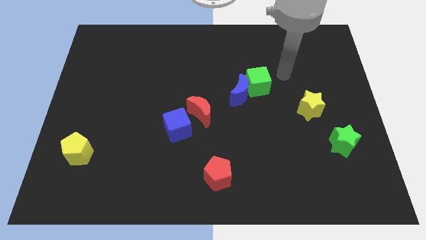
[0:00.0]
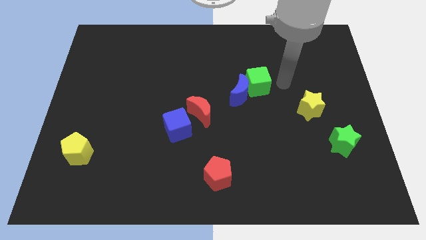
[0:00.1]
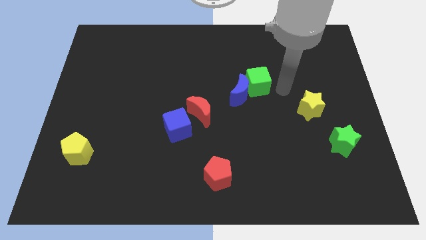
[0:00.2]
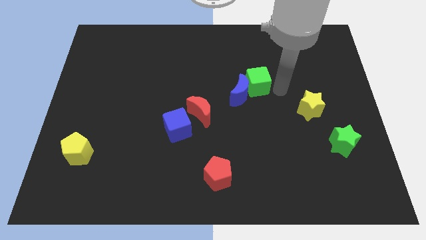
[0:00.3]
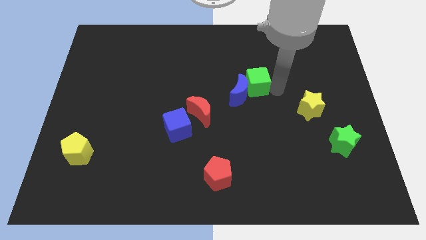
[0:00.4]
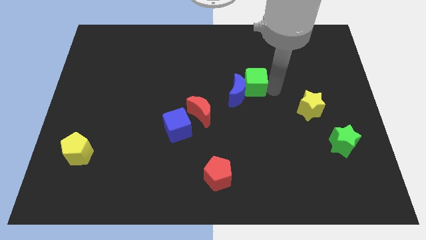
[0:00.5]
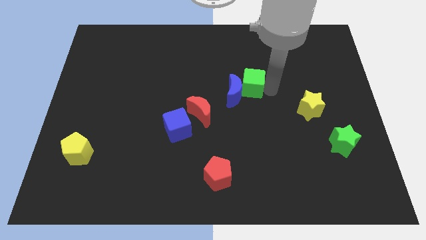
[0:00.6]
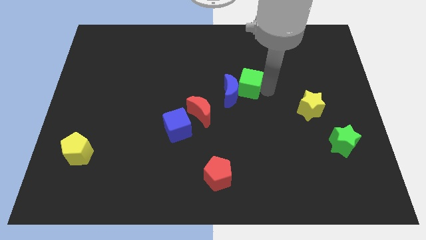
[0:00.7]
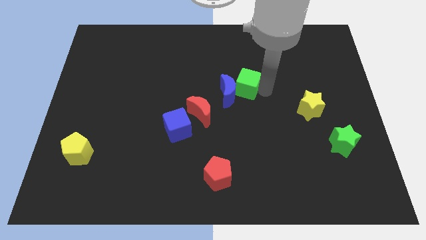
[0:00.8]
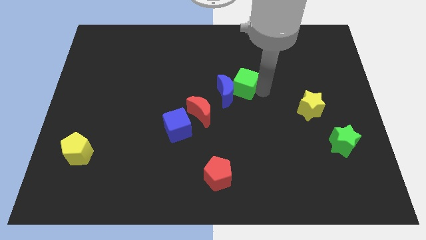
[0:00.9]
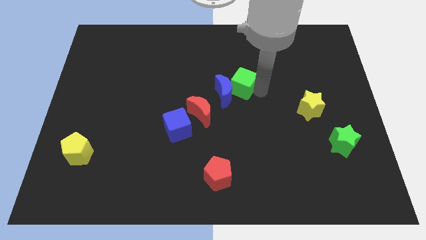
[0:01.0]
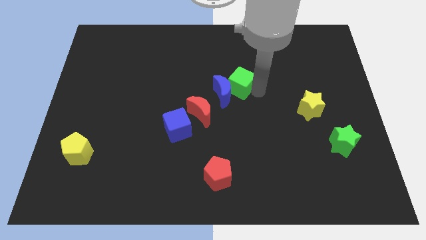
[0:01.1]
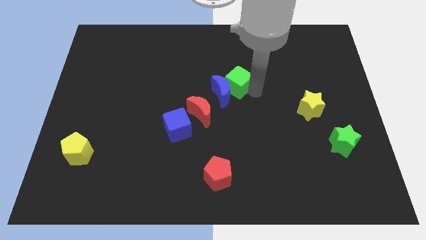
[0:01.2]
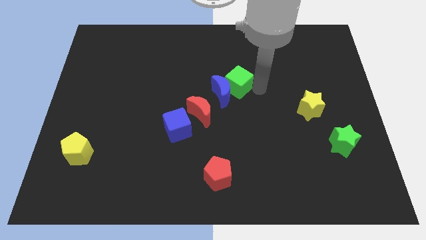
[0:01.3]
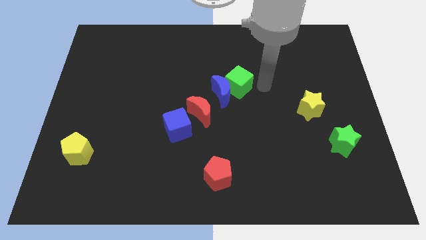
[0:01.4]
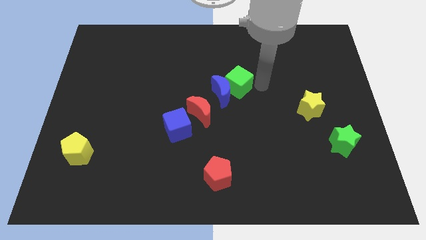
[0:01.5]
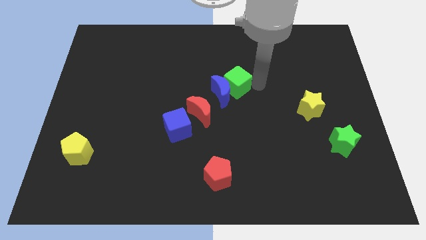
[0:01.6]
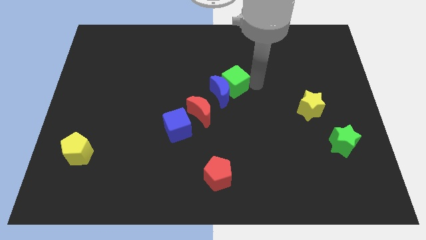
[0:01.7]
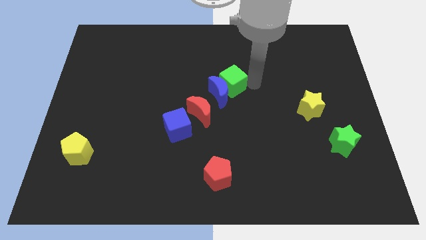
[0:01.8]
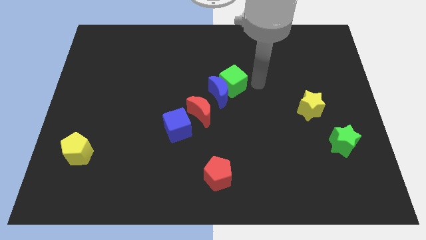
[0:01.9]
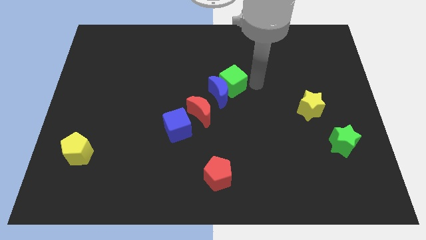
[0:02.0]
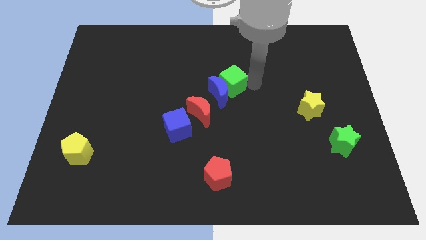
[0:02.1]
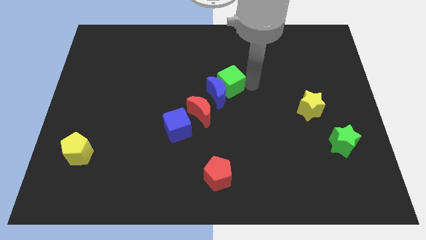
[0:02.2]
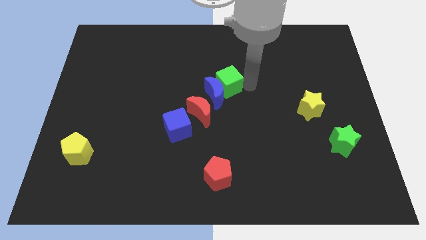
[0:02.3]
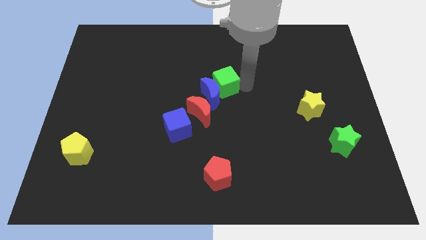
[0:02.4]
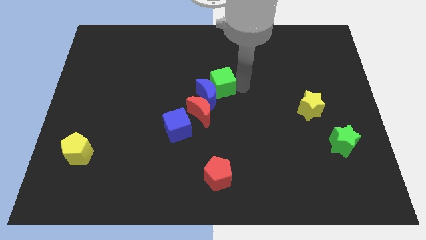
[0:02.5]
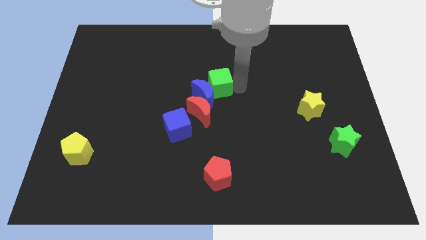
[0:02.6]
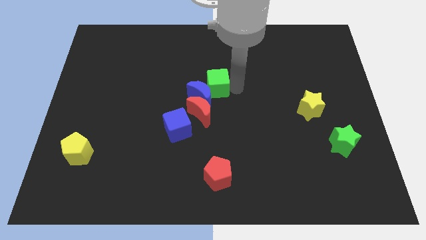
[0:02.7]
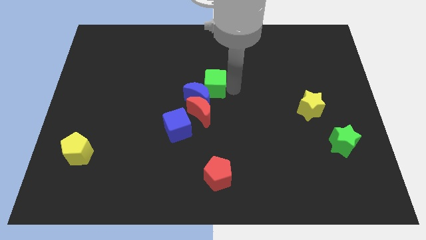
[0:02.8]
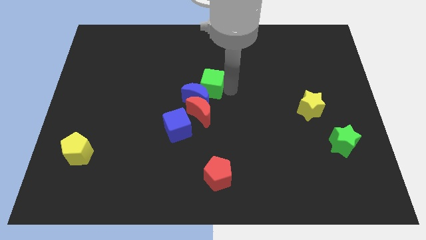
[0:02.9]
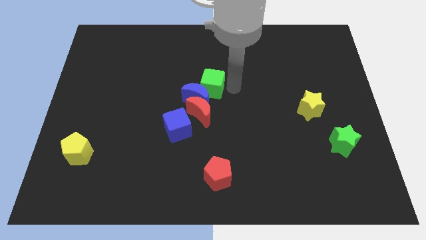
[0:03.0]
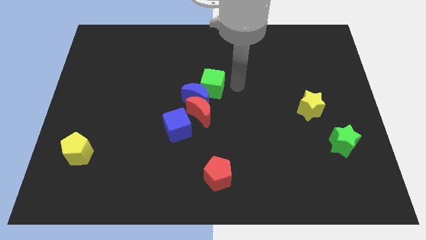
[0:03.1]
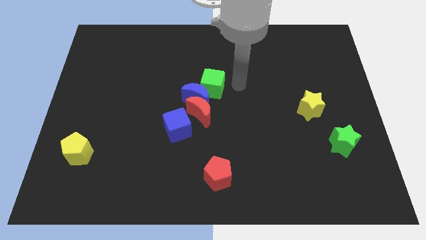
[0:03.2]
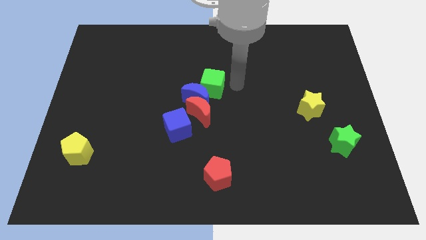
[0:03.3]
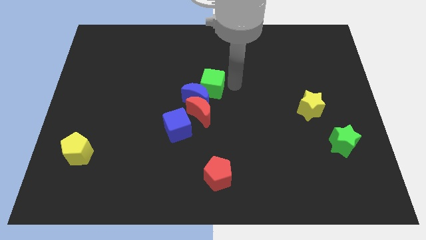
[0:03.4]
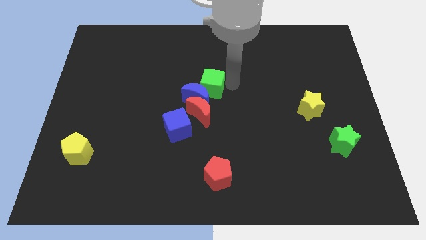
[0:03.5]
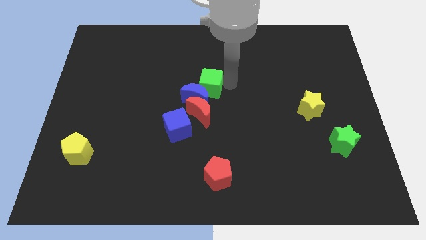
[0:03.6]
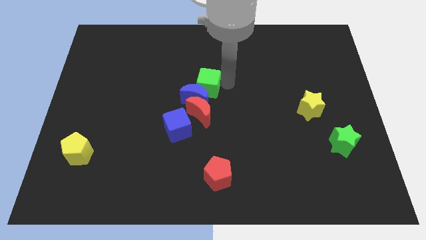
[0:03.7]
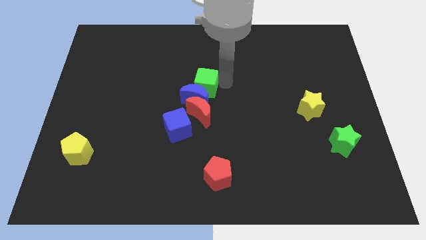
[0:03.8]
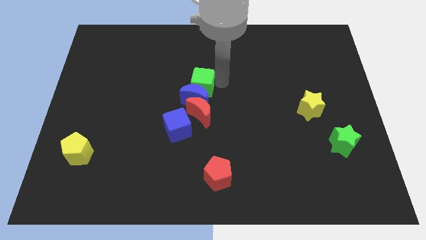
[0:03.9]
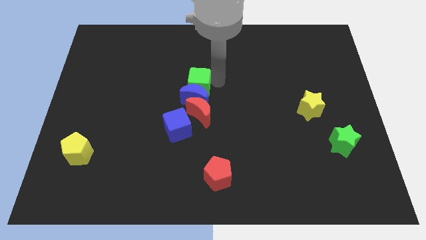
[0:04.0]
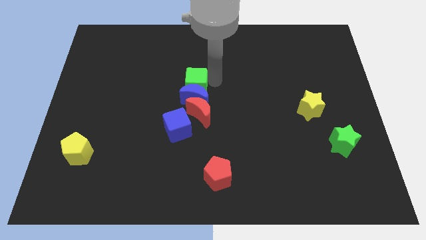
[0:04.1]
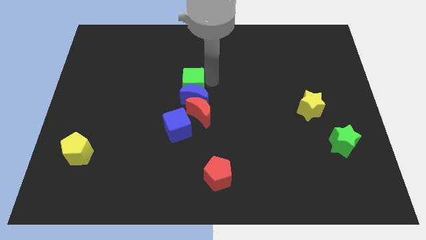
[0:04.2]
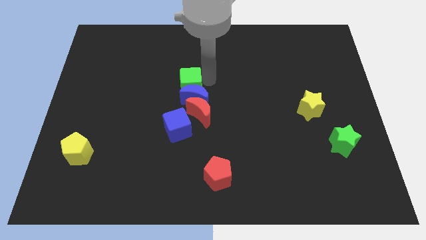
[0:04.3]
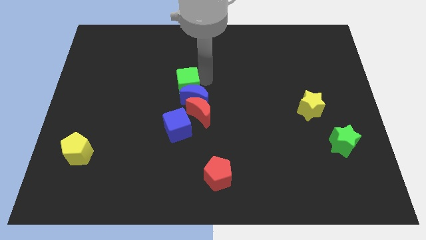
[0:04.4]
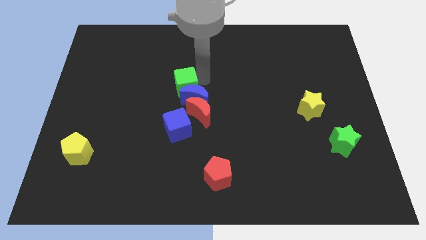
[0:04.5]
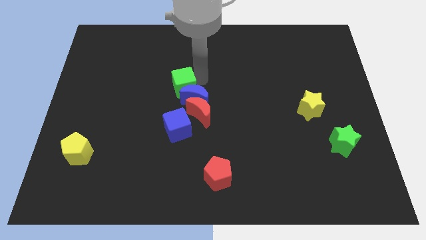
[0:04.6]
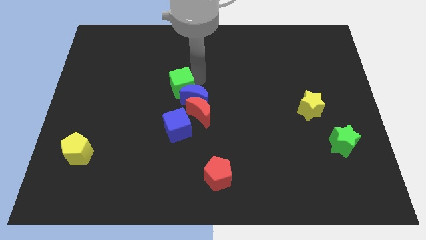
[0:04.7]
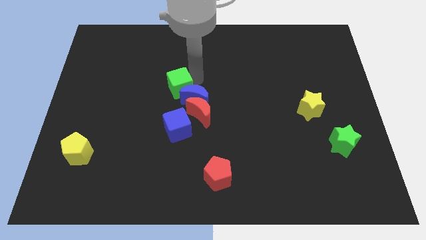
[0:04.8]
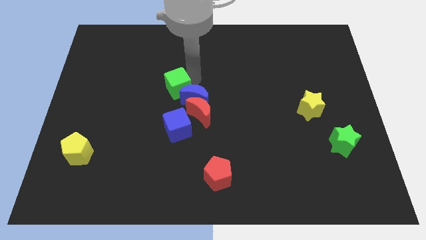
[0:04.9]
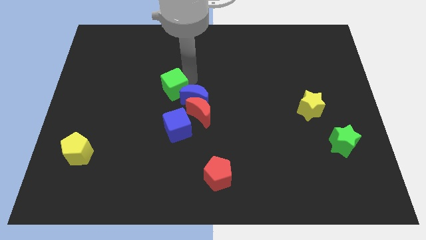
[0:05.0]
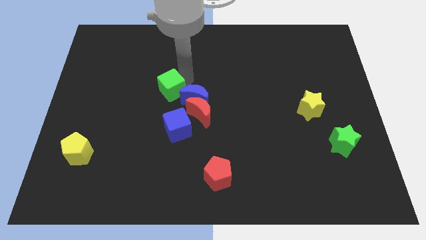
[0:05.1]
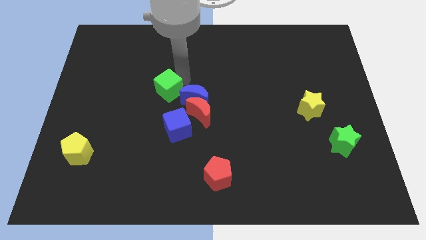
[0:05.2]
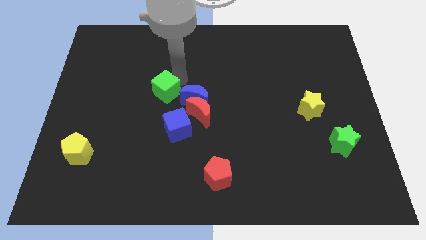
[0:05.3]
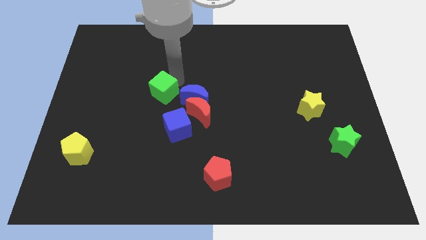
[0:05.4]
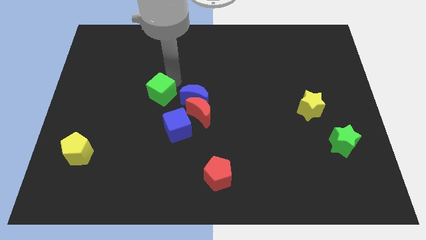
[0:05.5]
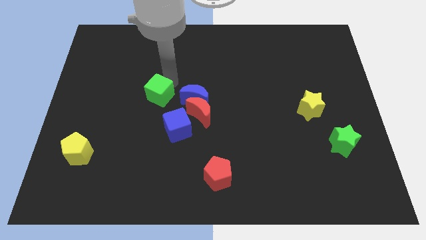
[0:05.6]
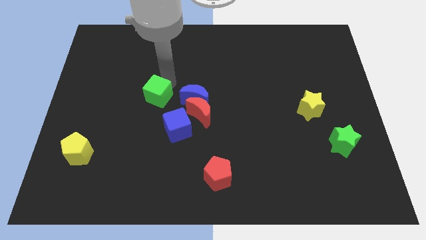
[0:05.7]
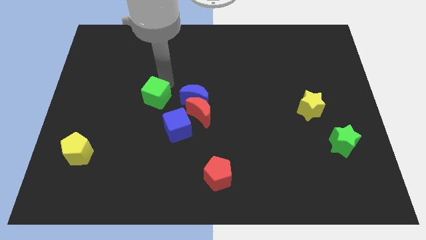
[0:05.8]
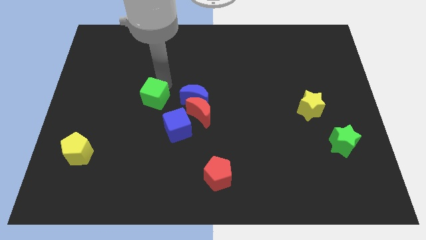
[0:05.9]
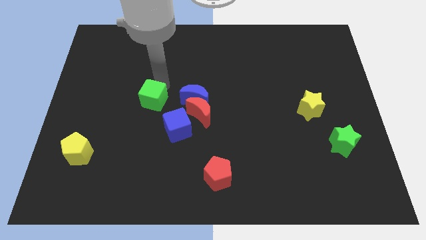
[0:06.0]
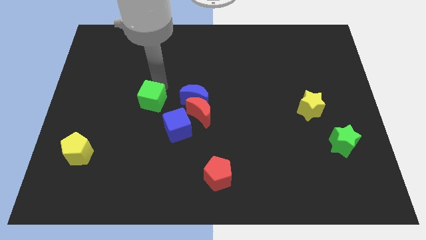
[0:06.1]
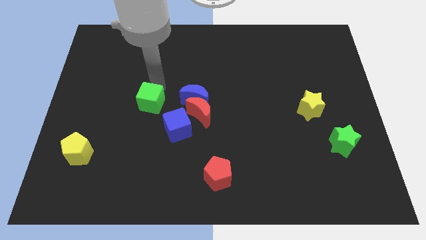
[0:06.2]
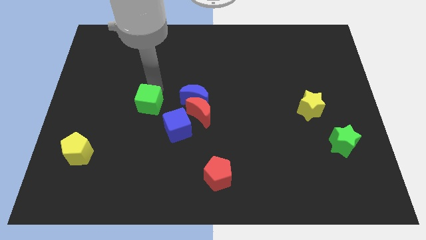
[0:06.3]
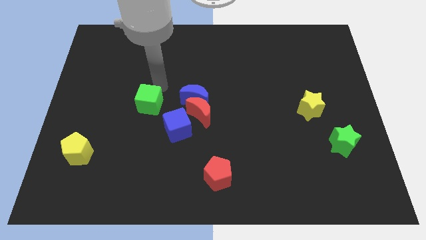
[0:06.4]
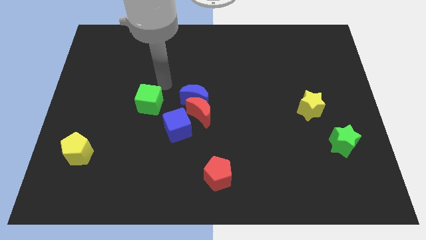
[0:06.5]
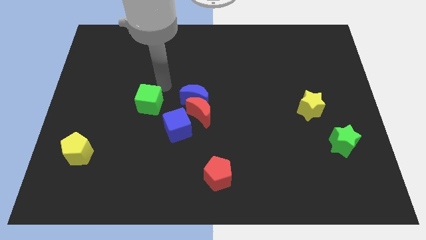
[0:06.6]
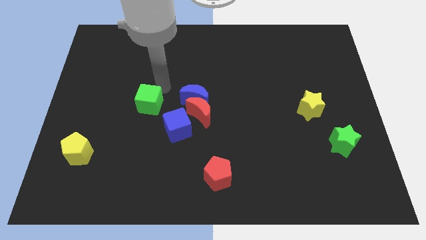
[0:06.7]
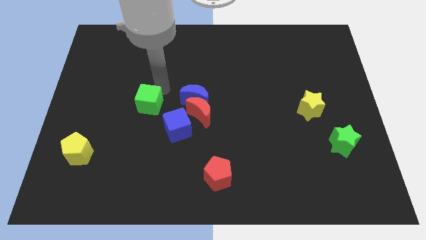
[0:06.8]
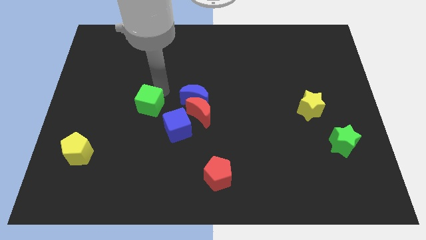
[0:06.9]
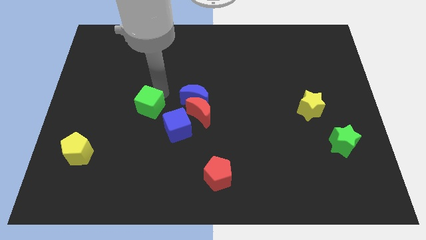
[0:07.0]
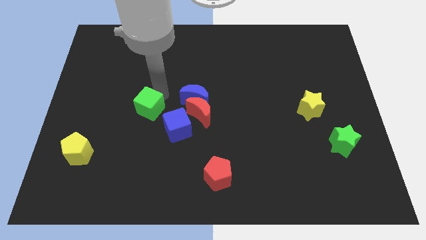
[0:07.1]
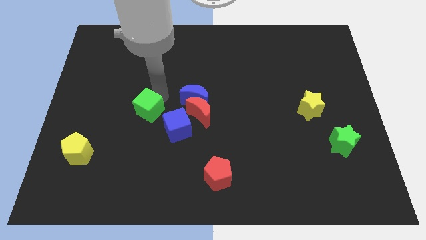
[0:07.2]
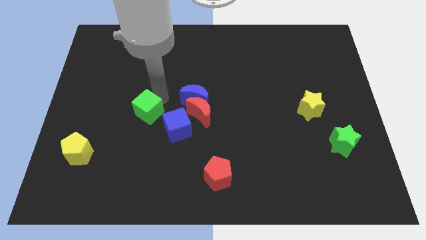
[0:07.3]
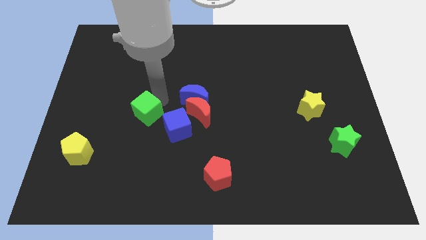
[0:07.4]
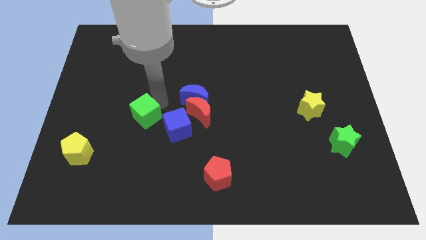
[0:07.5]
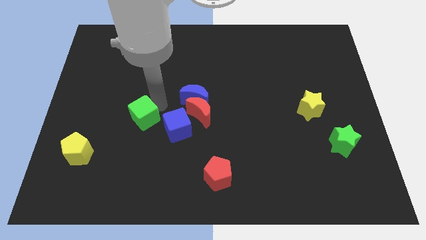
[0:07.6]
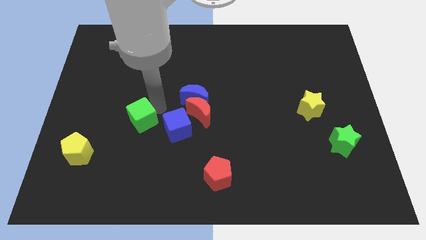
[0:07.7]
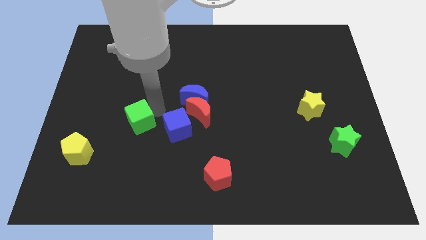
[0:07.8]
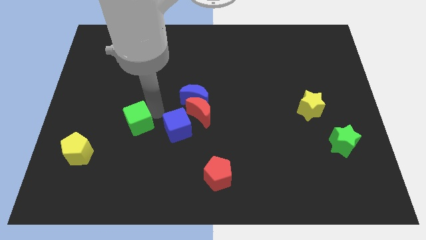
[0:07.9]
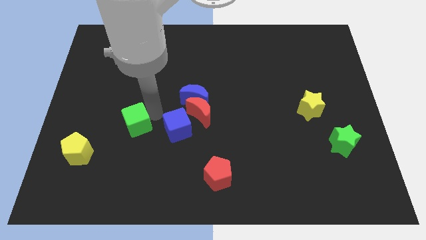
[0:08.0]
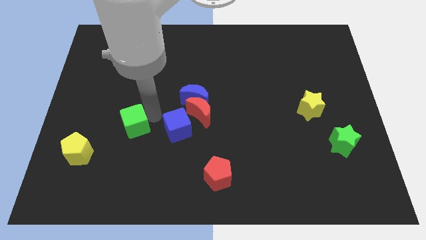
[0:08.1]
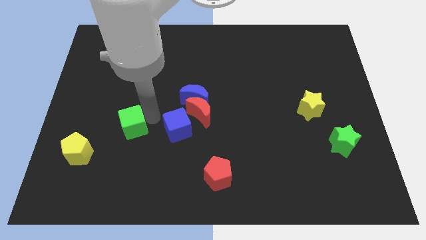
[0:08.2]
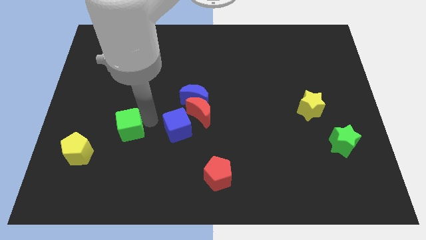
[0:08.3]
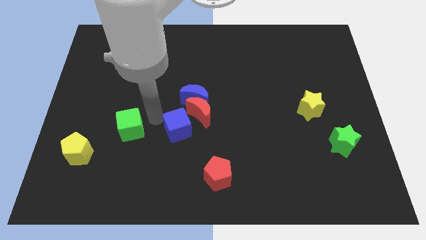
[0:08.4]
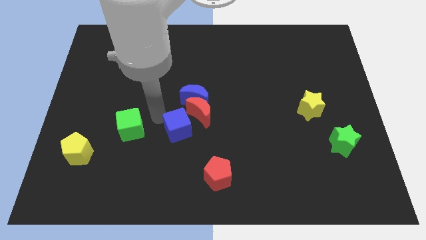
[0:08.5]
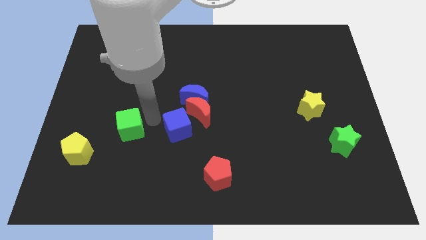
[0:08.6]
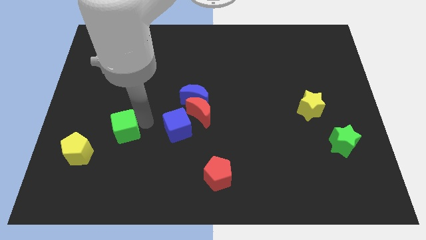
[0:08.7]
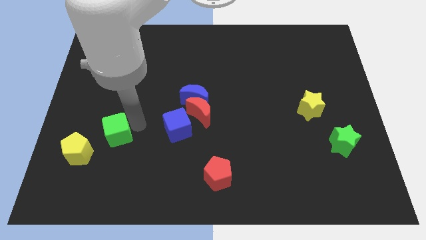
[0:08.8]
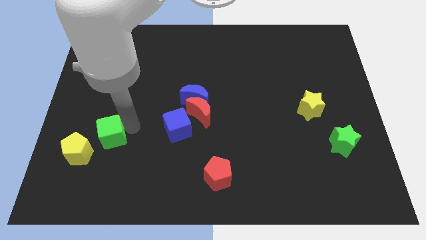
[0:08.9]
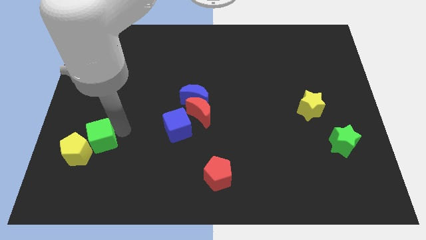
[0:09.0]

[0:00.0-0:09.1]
slide the green cube close to the yellow pentagon
